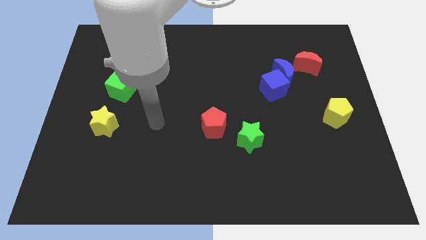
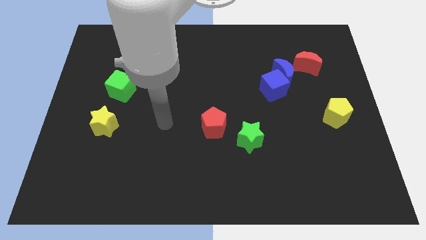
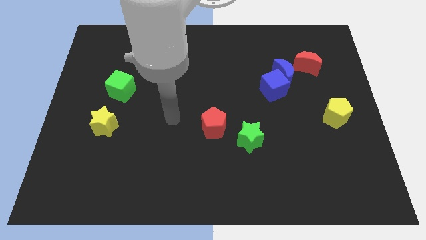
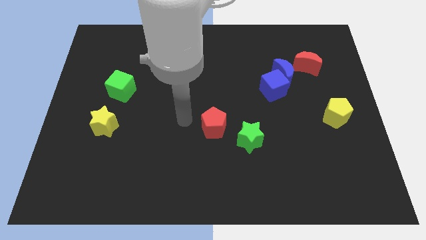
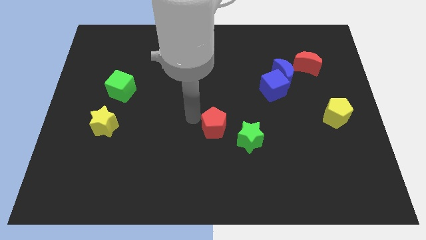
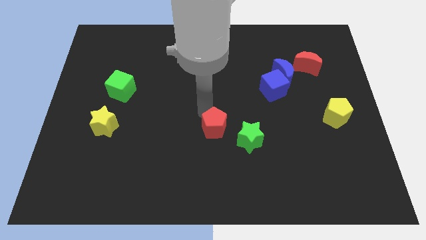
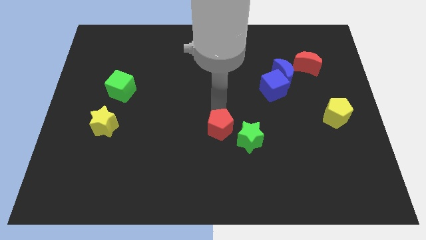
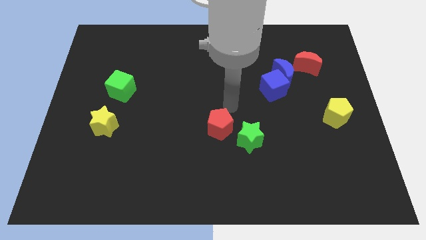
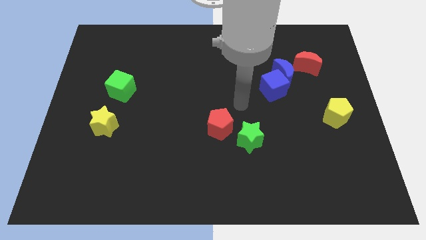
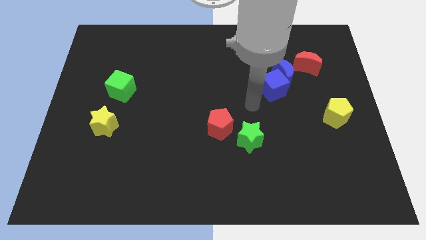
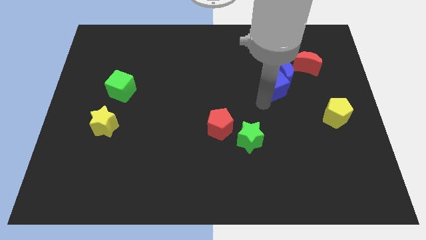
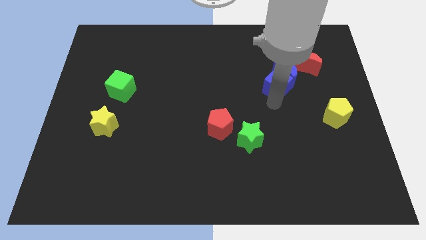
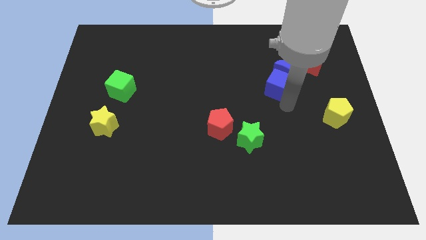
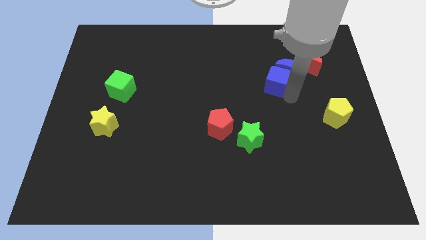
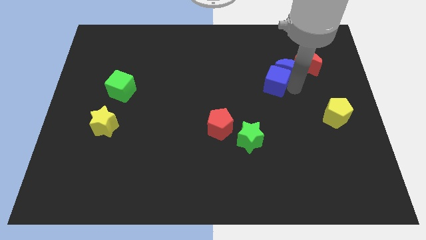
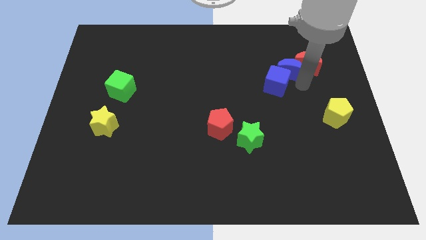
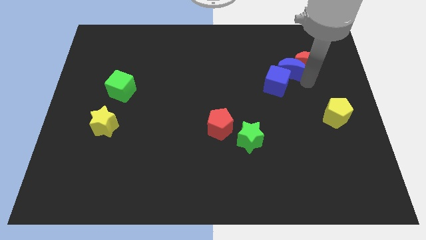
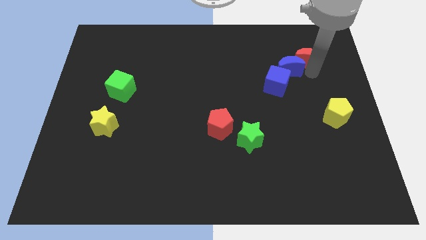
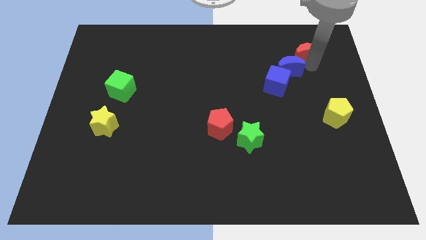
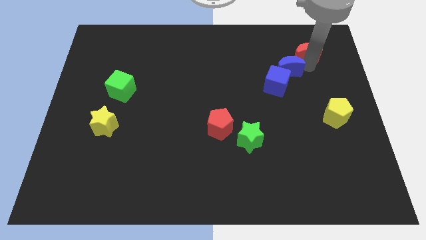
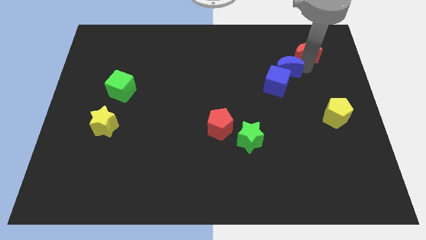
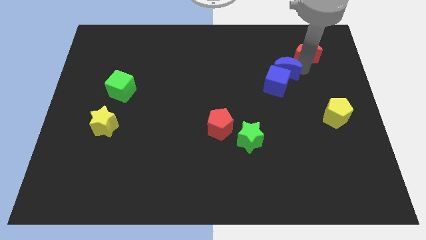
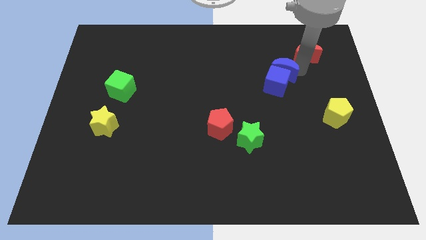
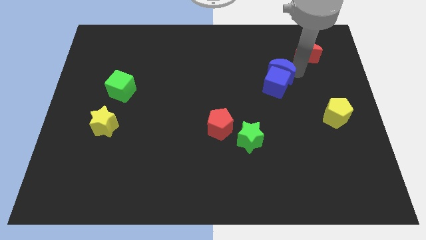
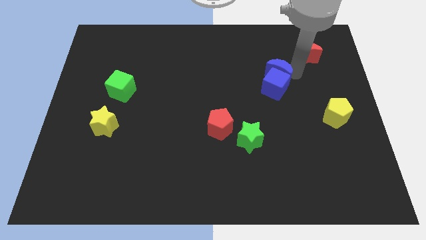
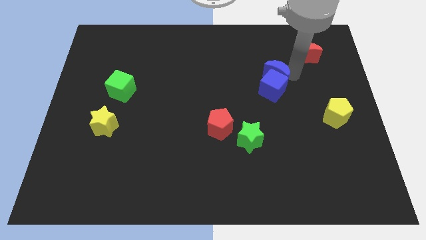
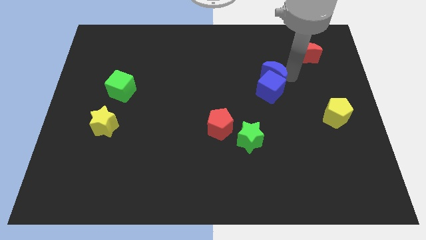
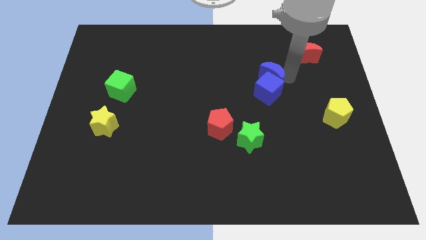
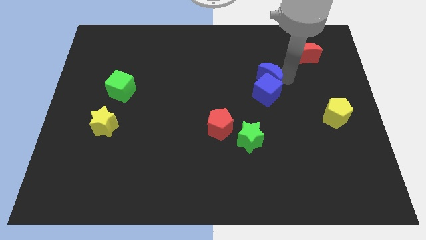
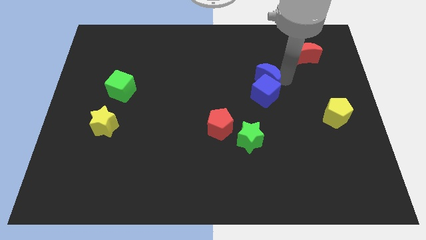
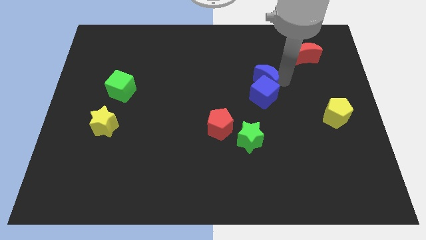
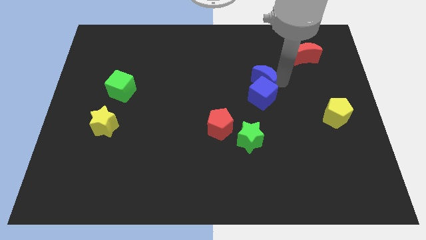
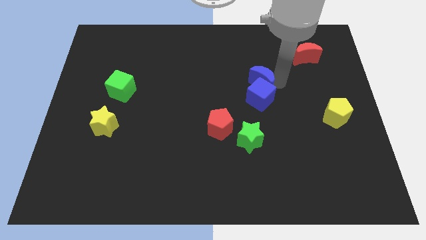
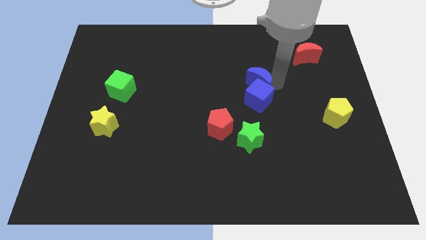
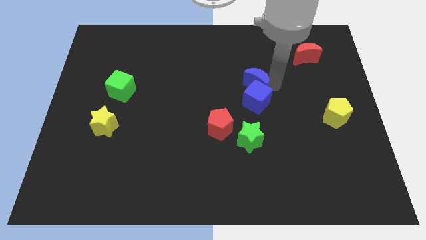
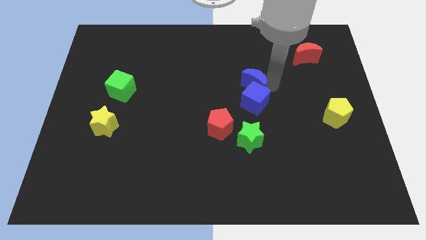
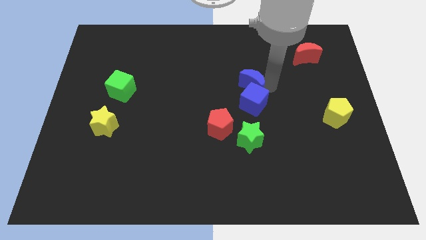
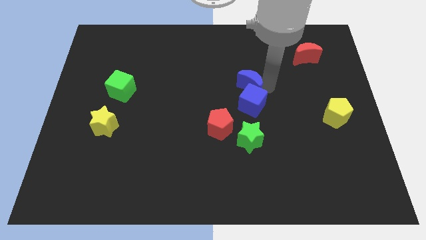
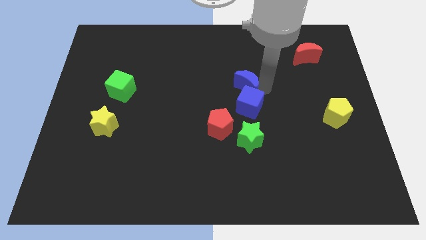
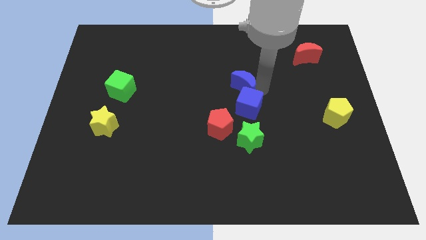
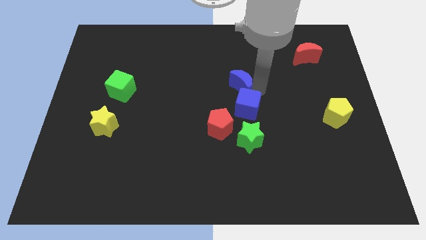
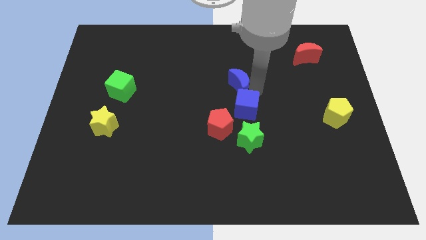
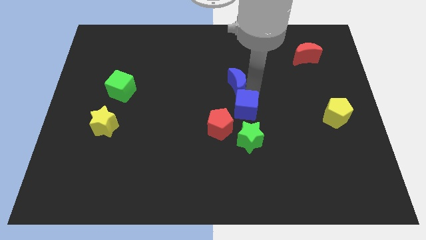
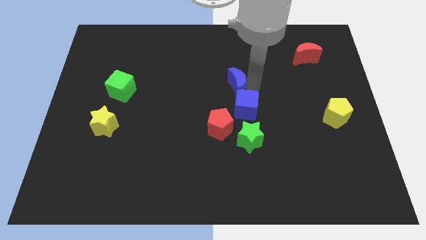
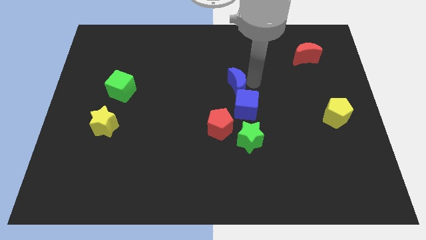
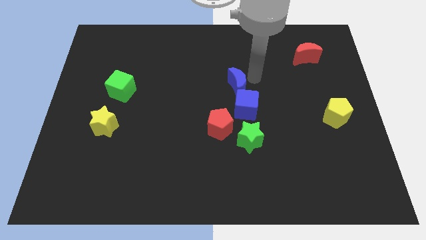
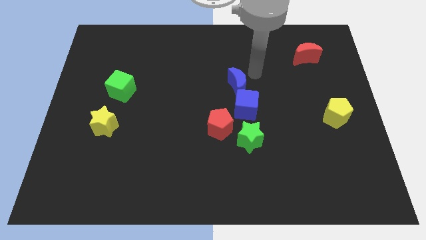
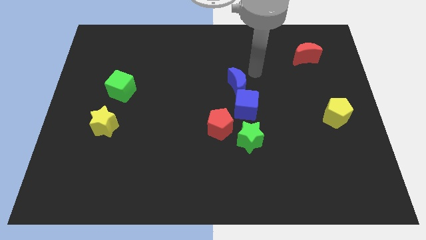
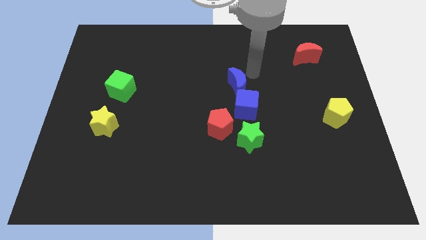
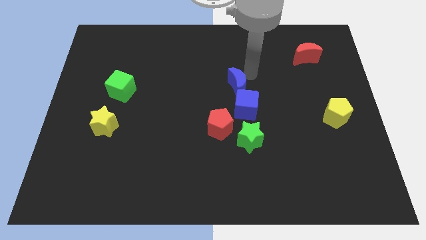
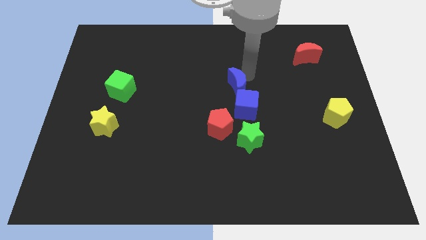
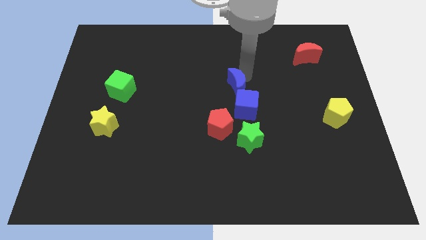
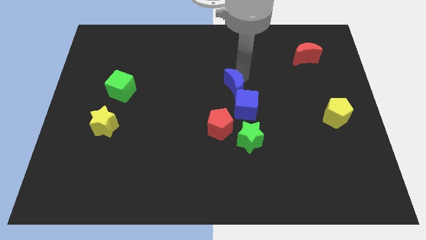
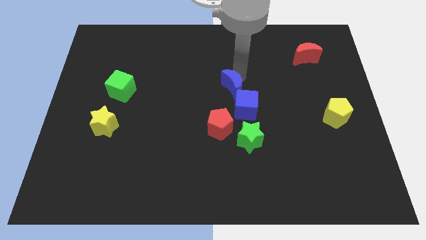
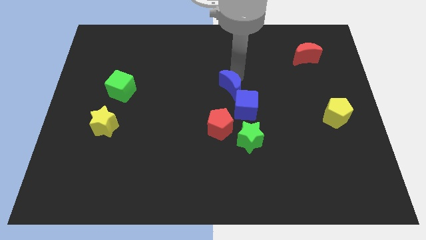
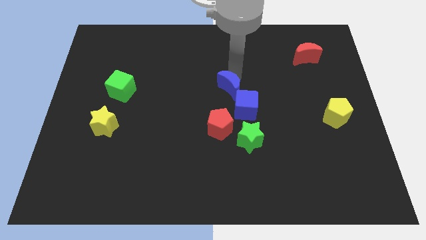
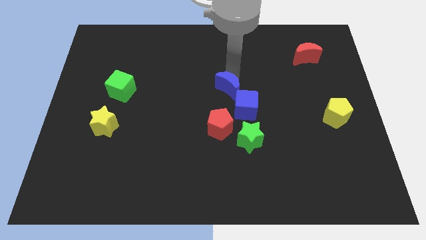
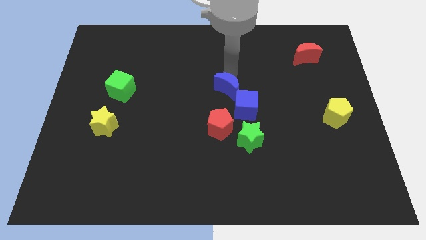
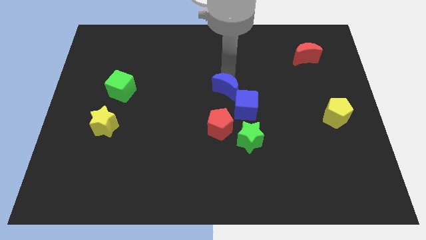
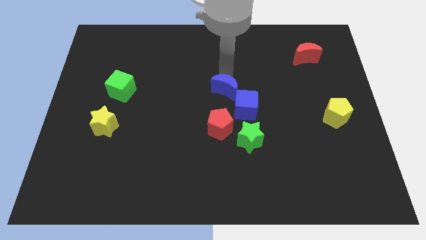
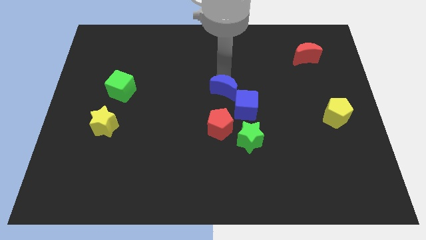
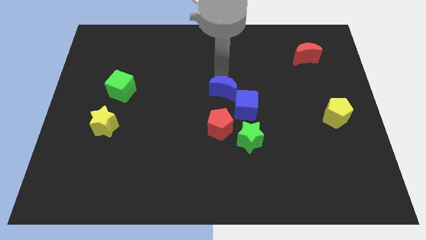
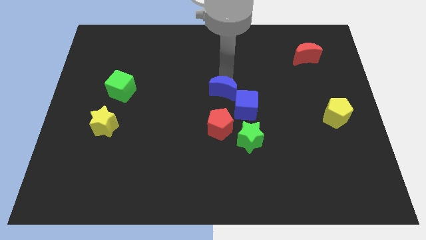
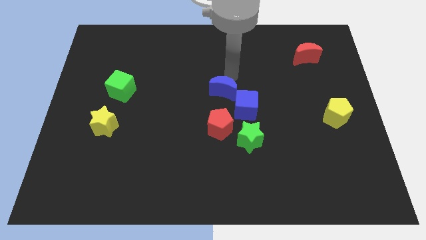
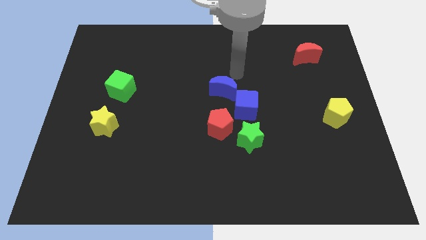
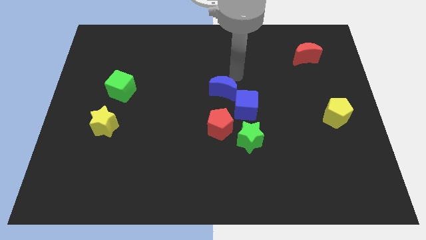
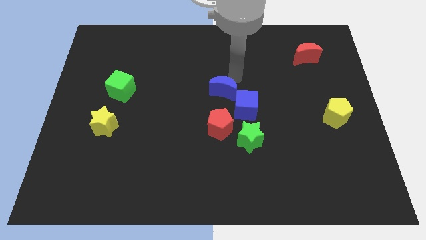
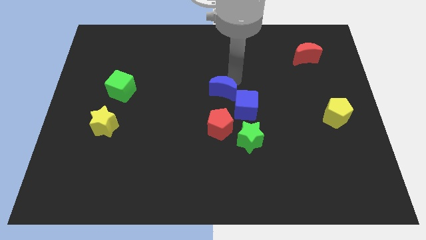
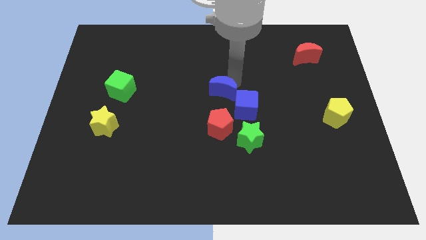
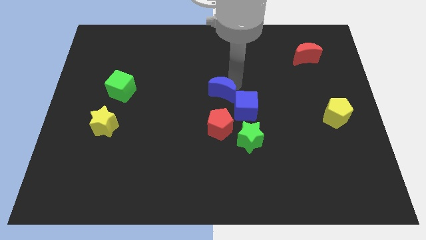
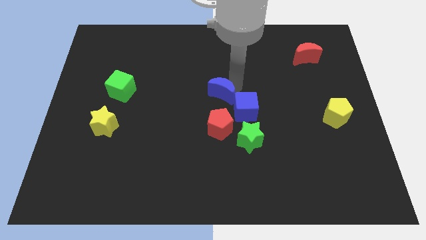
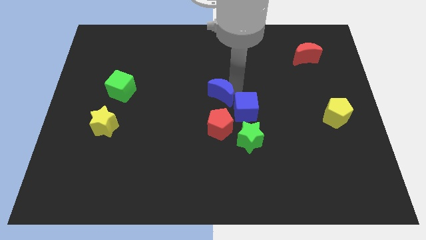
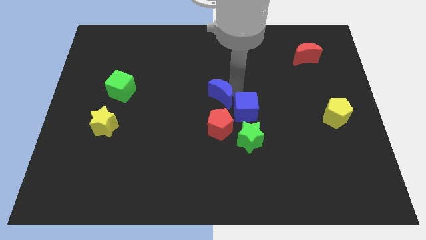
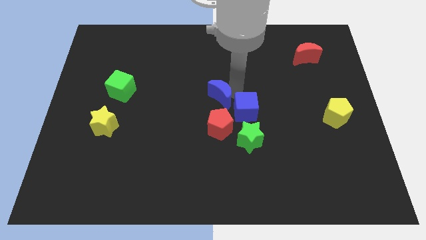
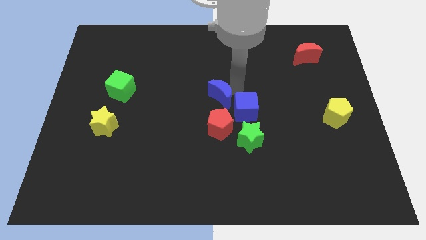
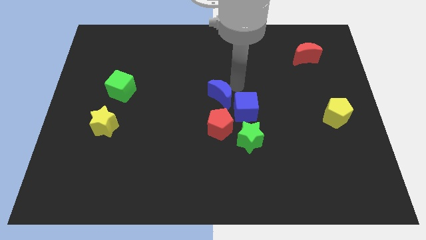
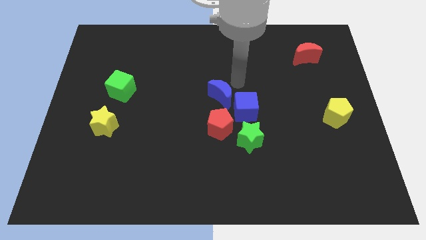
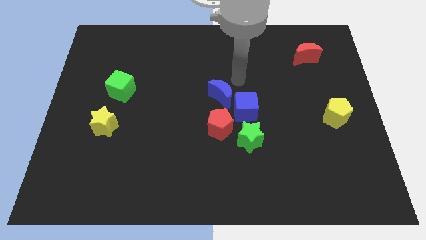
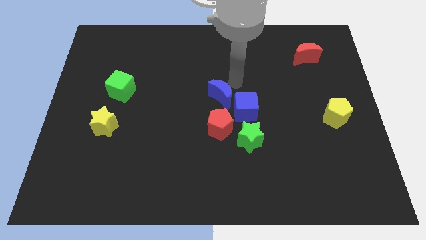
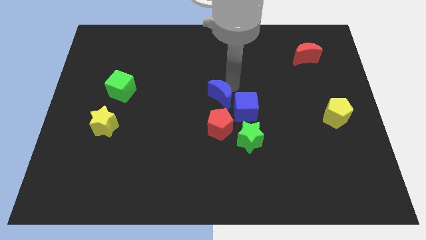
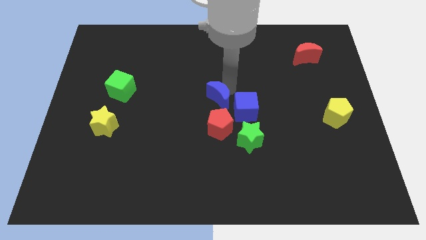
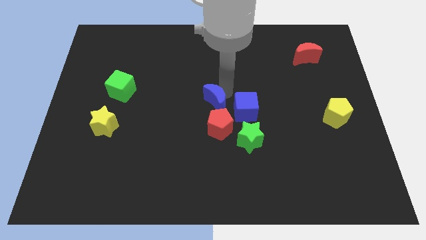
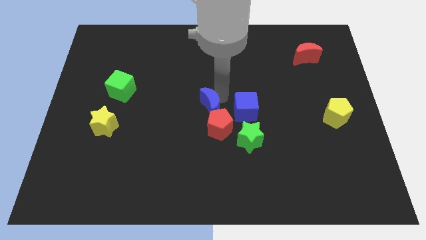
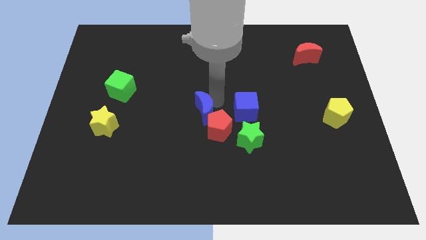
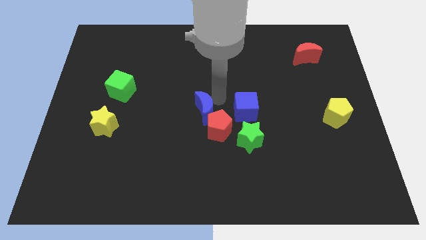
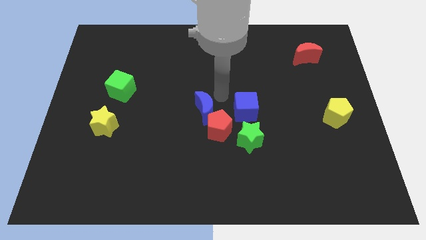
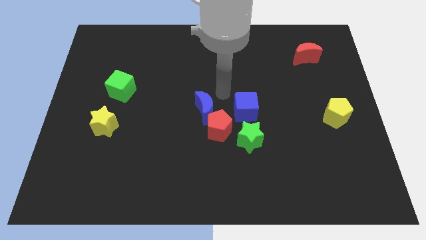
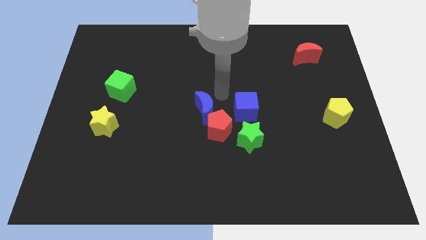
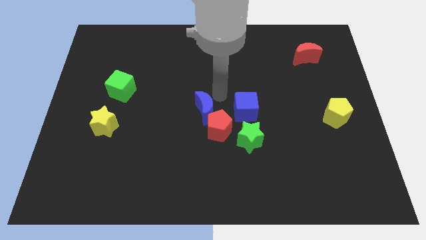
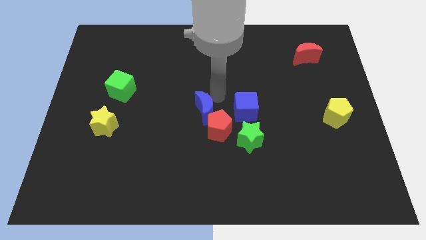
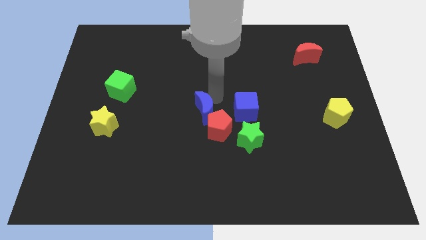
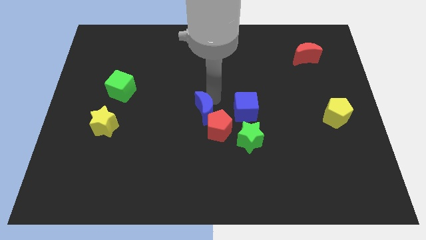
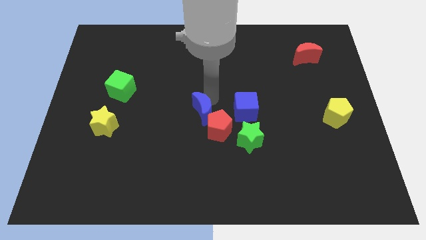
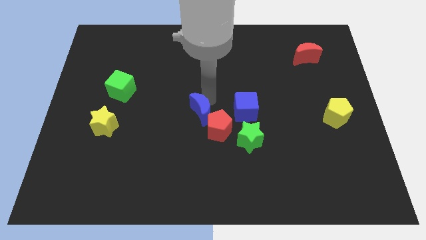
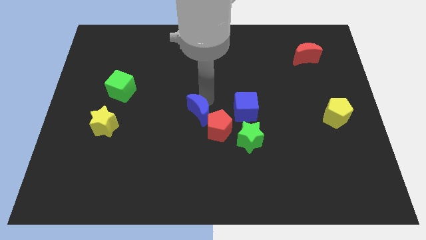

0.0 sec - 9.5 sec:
move the blue moon left of the red pentagon
